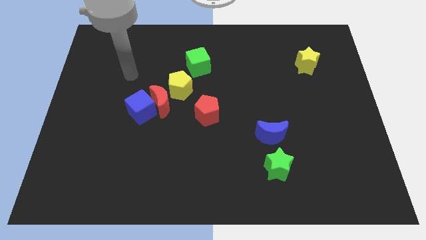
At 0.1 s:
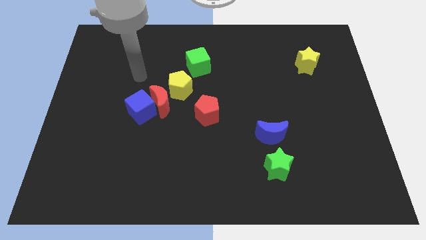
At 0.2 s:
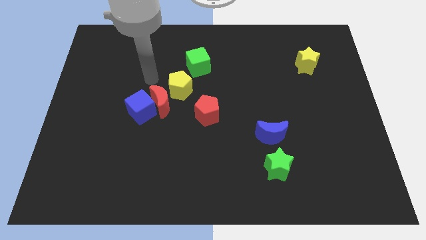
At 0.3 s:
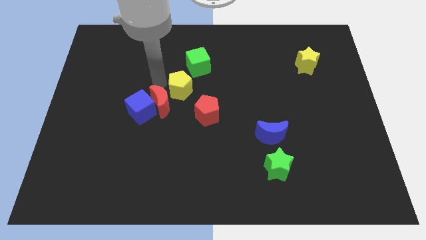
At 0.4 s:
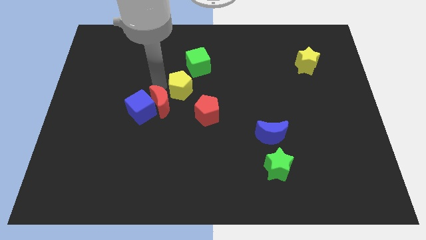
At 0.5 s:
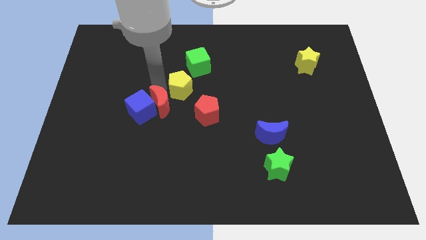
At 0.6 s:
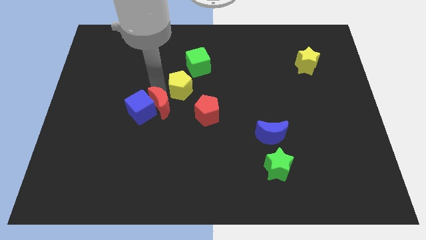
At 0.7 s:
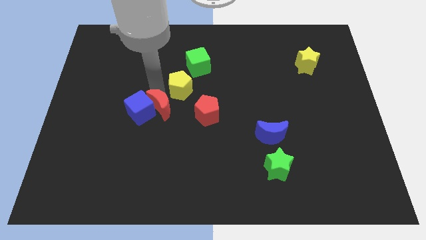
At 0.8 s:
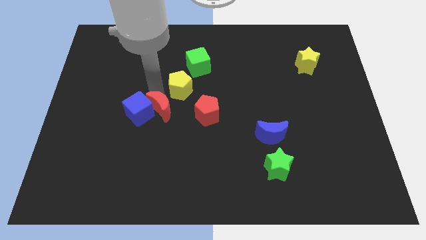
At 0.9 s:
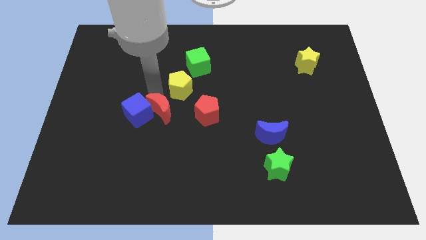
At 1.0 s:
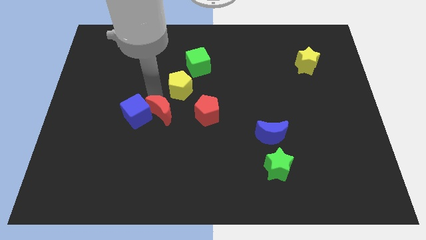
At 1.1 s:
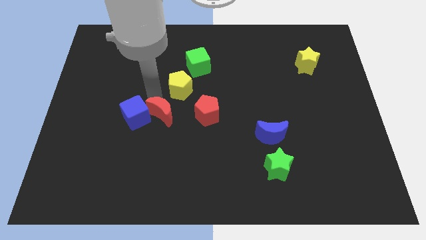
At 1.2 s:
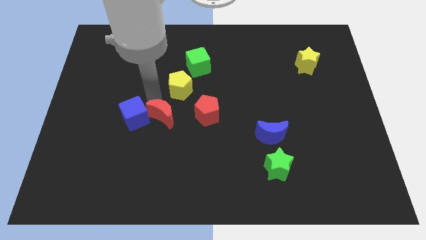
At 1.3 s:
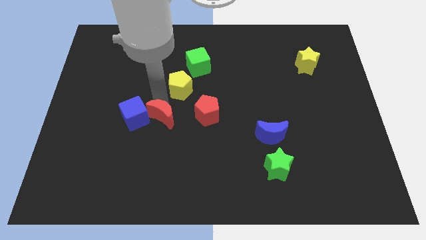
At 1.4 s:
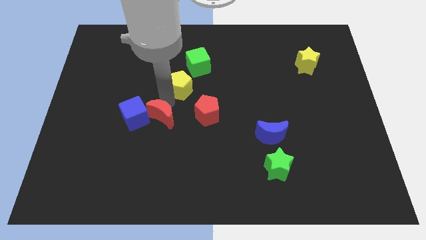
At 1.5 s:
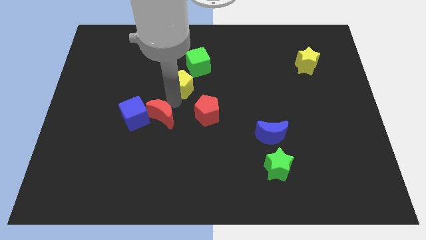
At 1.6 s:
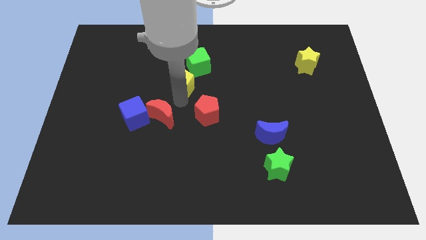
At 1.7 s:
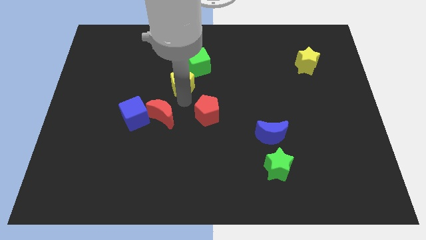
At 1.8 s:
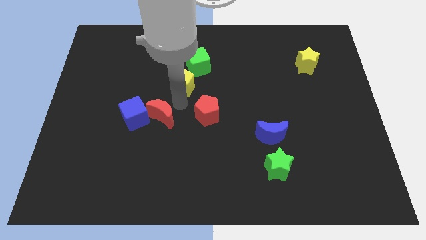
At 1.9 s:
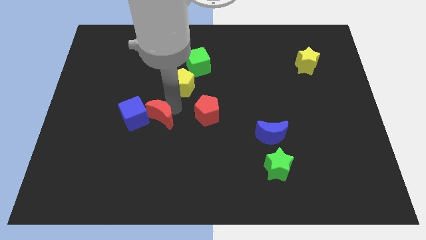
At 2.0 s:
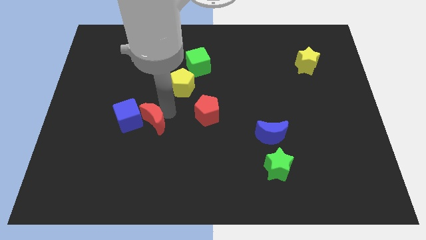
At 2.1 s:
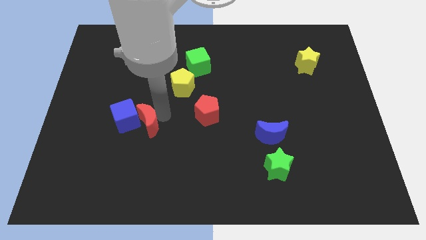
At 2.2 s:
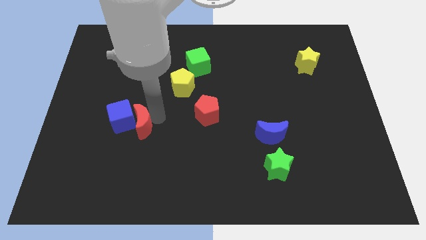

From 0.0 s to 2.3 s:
slide the red moon a little bit down and to the left diagonally

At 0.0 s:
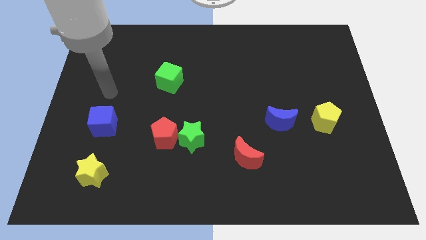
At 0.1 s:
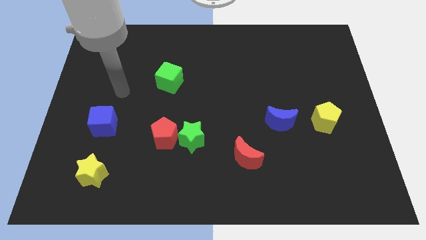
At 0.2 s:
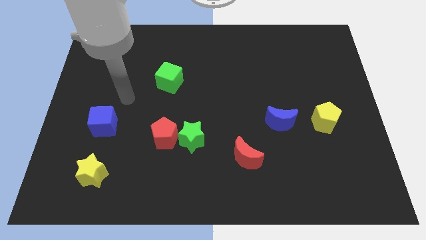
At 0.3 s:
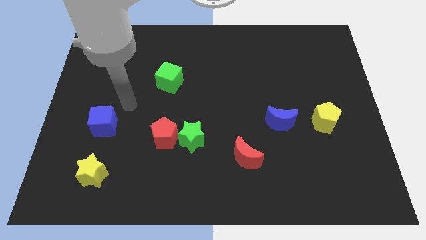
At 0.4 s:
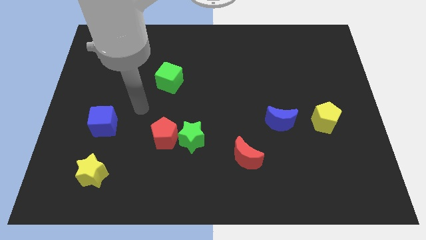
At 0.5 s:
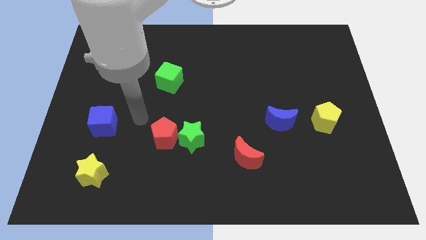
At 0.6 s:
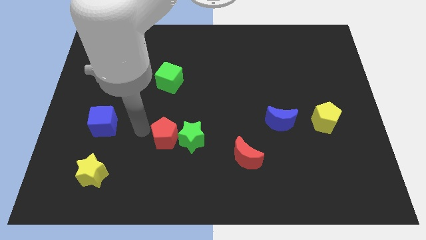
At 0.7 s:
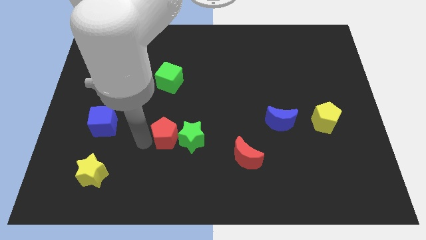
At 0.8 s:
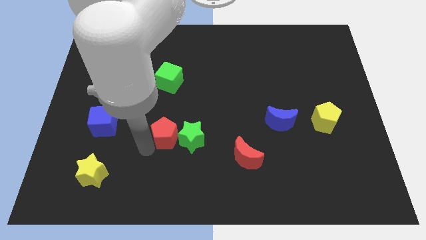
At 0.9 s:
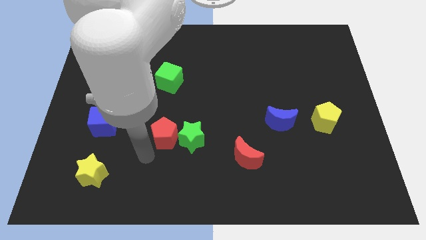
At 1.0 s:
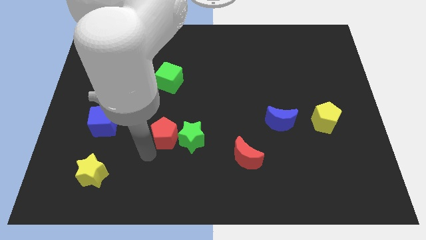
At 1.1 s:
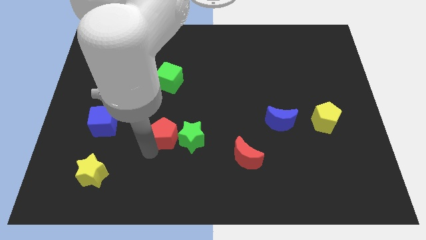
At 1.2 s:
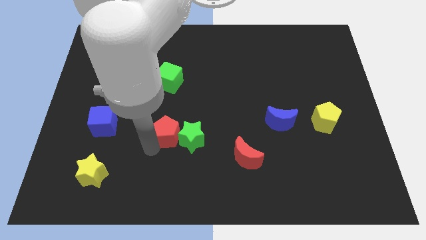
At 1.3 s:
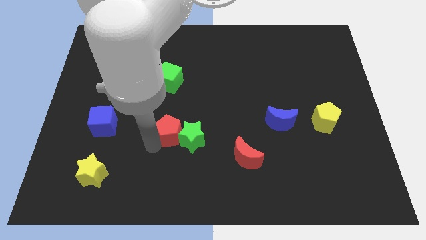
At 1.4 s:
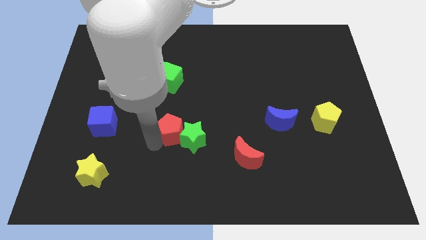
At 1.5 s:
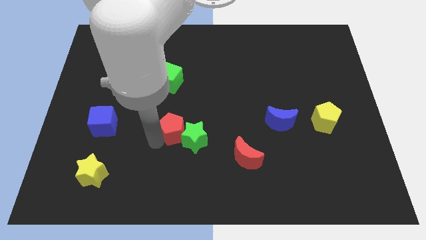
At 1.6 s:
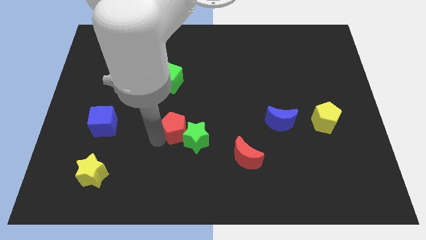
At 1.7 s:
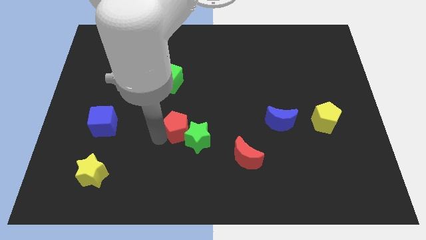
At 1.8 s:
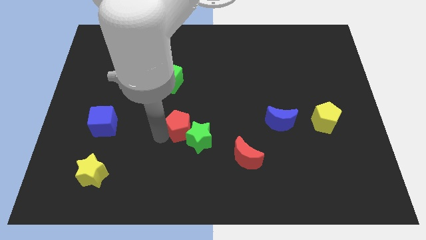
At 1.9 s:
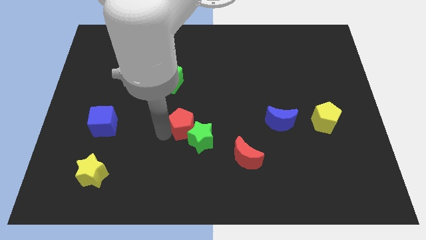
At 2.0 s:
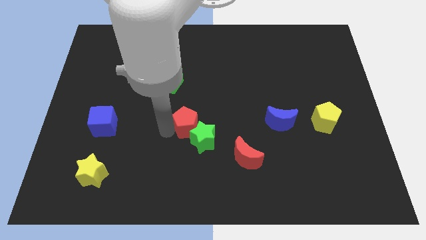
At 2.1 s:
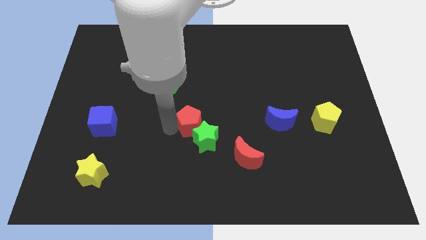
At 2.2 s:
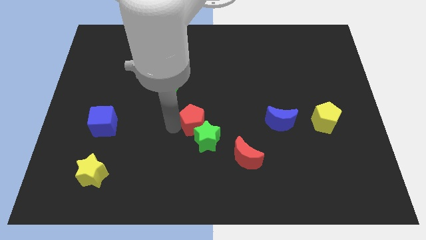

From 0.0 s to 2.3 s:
slightly slide the red pentagon diagonally upwards and to the right

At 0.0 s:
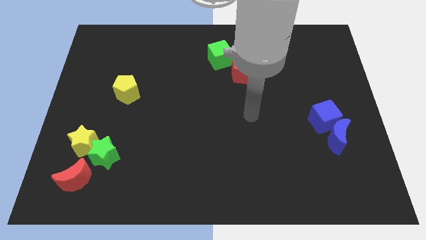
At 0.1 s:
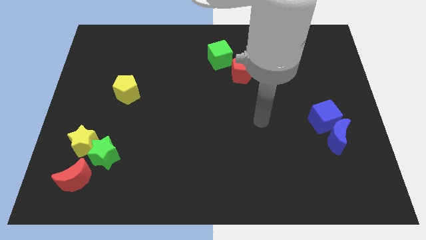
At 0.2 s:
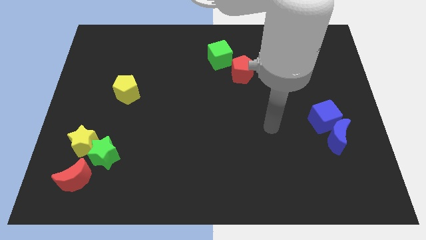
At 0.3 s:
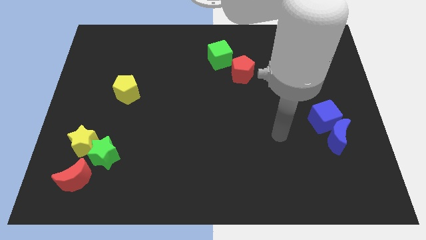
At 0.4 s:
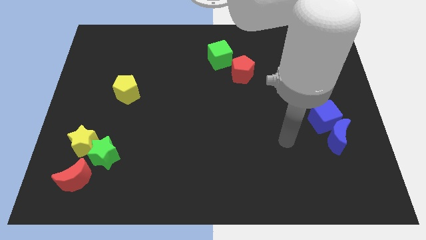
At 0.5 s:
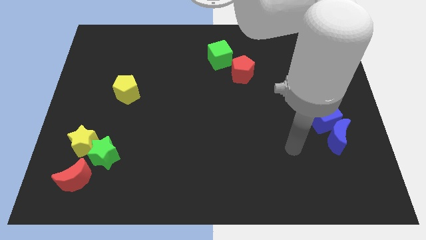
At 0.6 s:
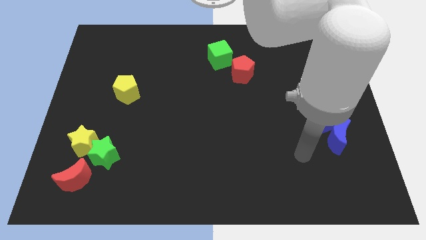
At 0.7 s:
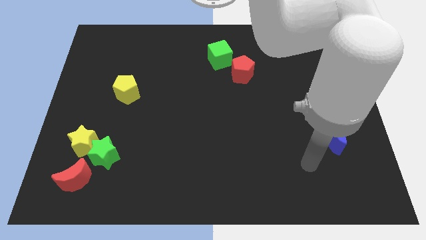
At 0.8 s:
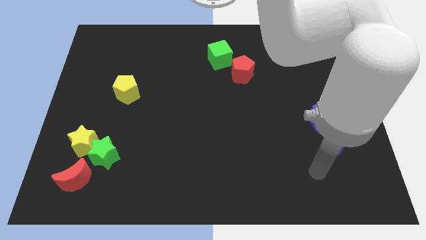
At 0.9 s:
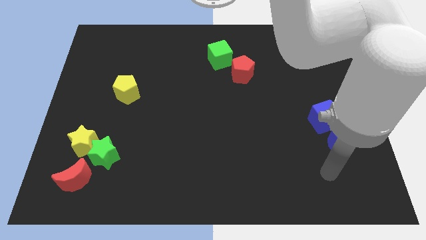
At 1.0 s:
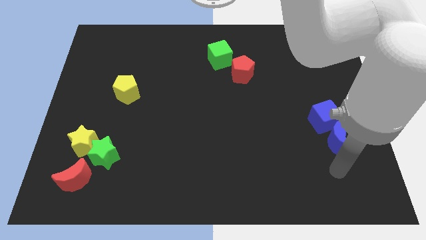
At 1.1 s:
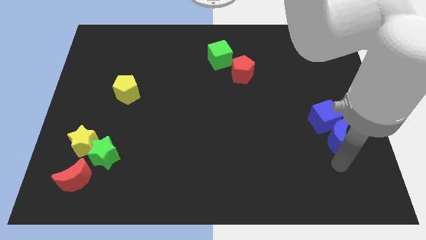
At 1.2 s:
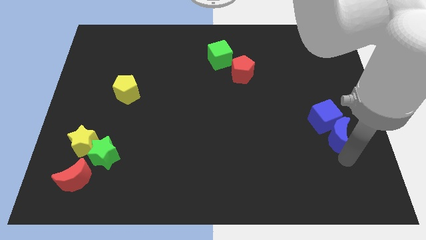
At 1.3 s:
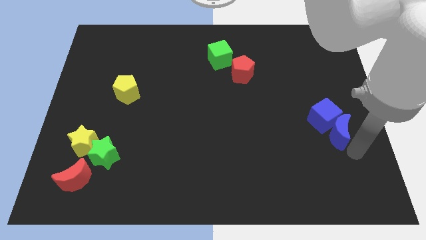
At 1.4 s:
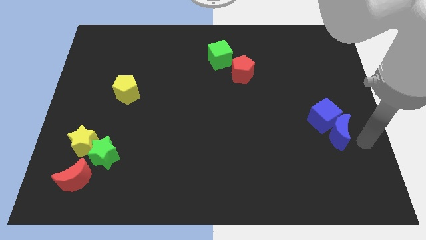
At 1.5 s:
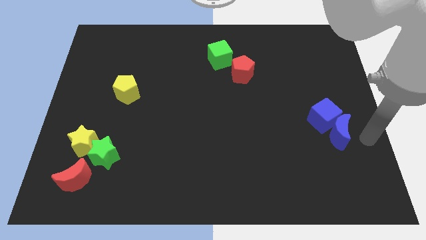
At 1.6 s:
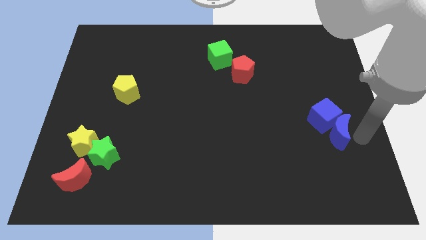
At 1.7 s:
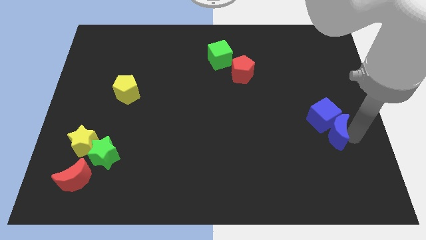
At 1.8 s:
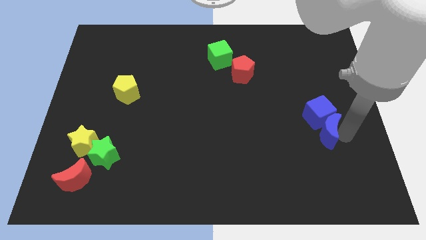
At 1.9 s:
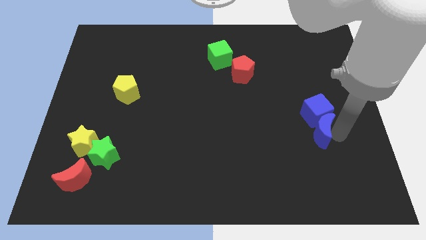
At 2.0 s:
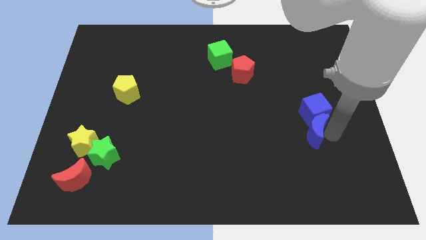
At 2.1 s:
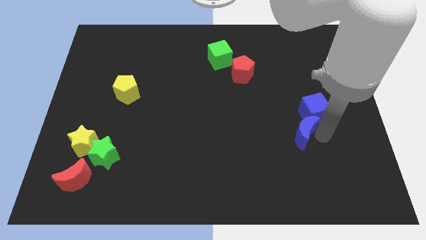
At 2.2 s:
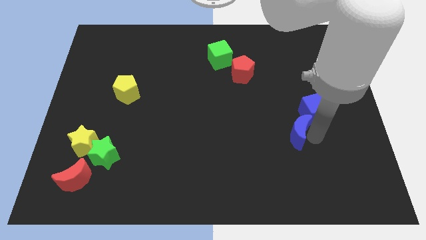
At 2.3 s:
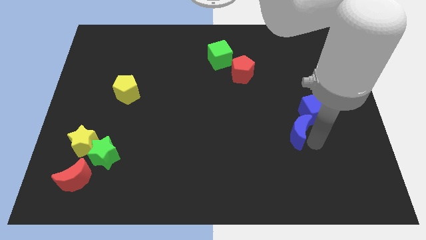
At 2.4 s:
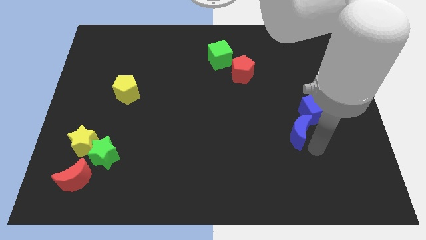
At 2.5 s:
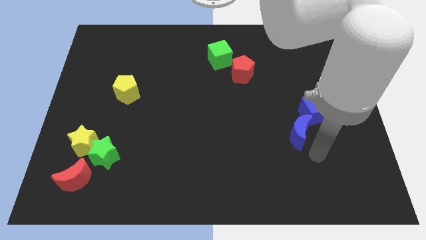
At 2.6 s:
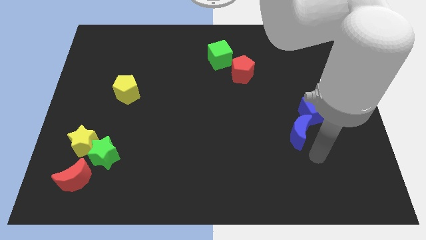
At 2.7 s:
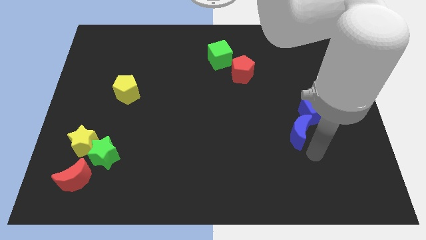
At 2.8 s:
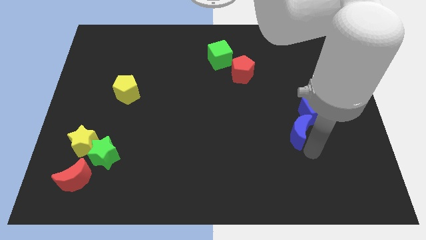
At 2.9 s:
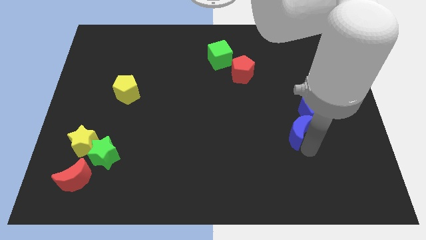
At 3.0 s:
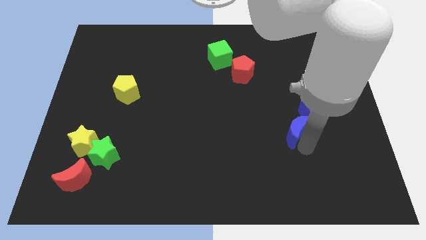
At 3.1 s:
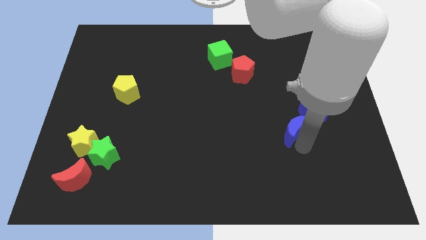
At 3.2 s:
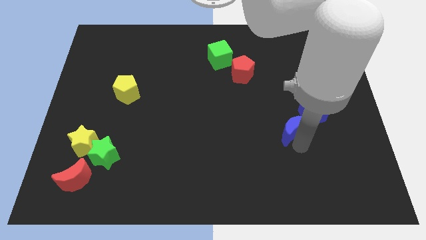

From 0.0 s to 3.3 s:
push the blue moon a little up and to the left

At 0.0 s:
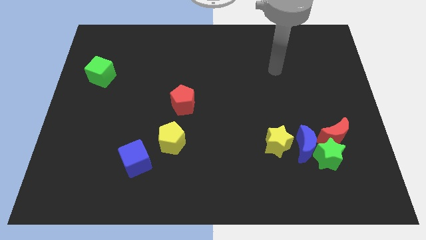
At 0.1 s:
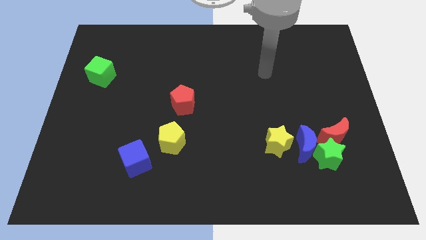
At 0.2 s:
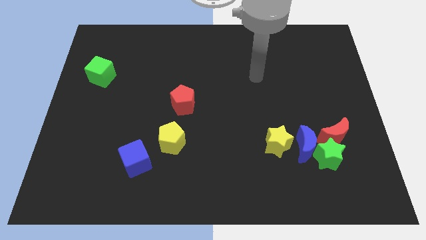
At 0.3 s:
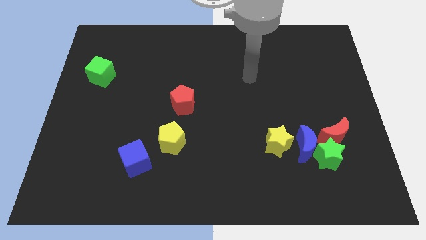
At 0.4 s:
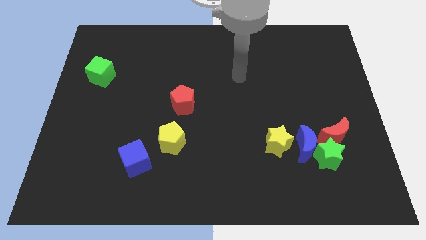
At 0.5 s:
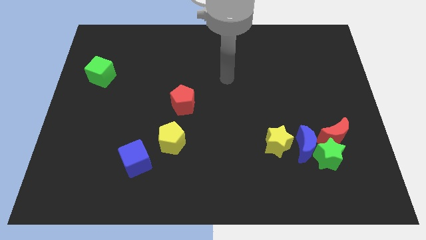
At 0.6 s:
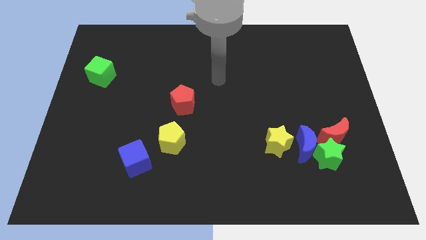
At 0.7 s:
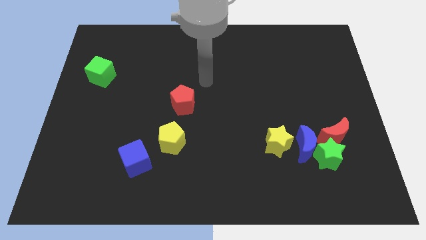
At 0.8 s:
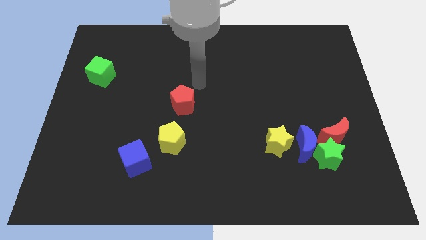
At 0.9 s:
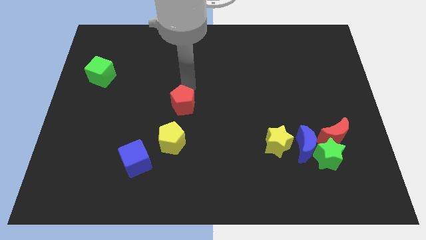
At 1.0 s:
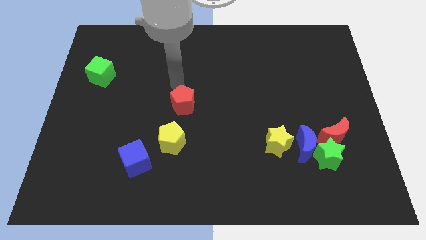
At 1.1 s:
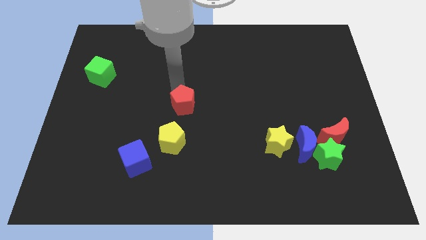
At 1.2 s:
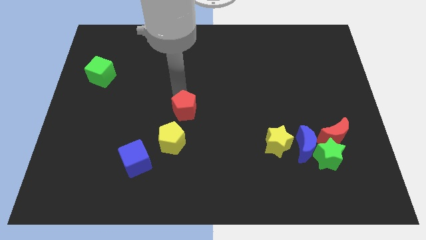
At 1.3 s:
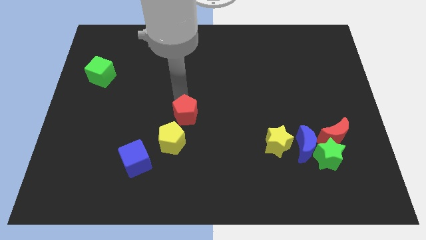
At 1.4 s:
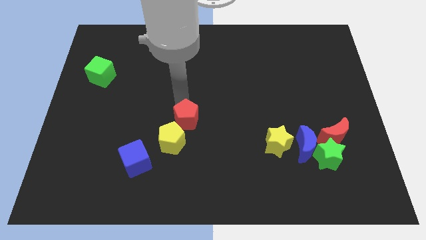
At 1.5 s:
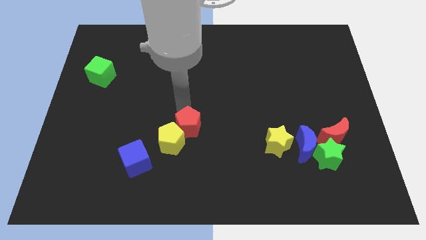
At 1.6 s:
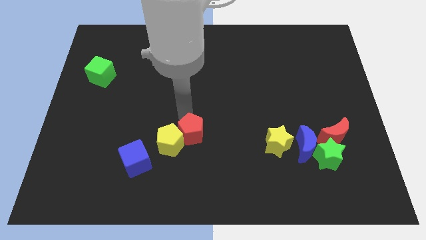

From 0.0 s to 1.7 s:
slide the red pentagon down somewhat
